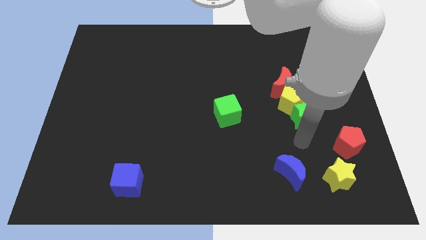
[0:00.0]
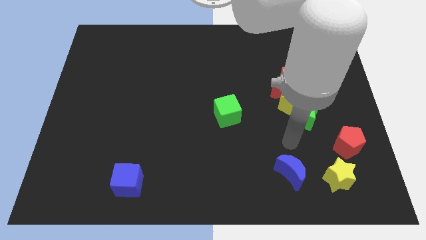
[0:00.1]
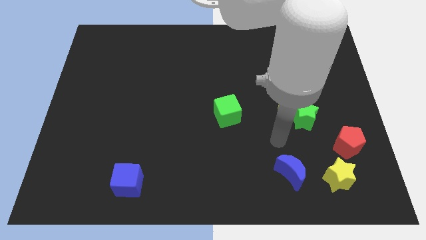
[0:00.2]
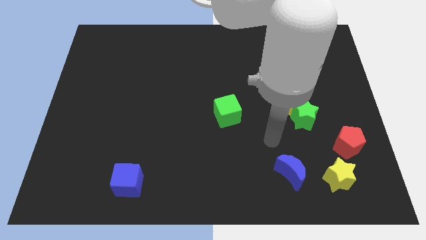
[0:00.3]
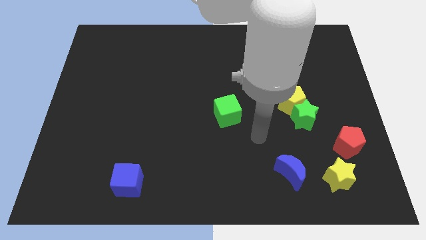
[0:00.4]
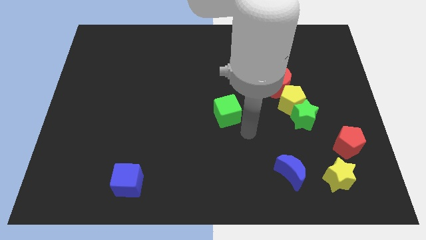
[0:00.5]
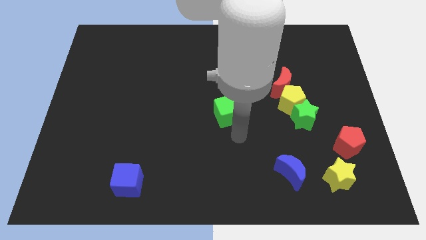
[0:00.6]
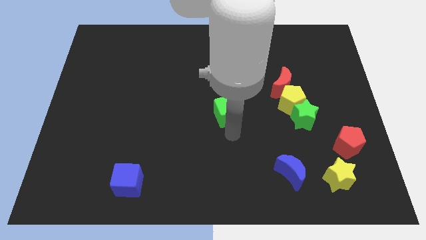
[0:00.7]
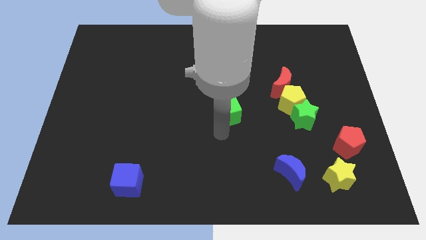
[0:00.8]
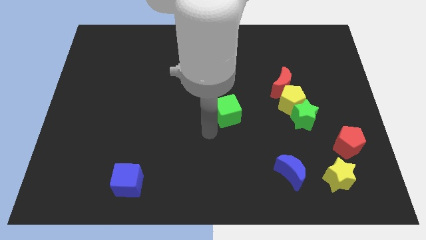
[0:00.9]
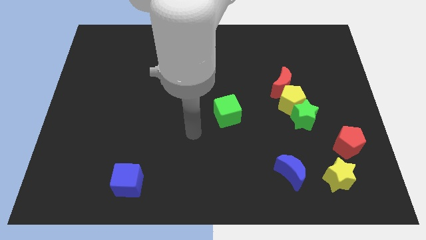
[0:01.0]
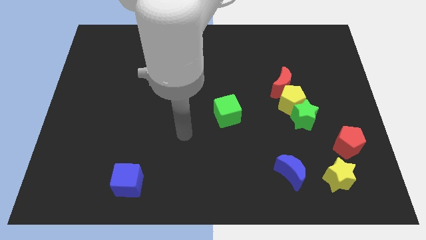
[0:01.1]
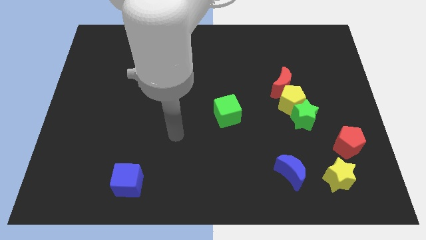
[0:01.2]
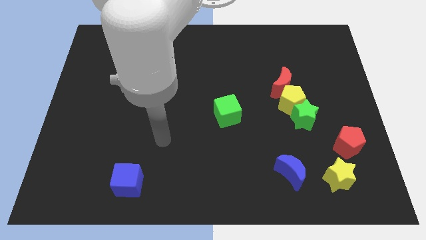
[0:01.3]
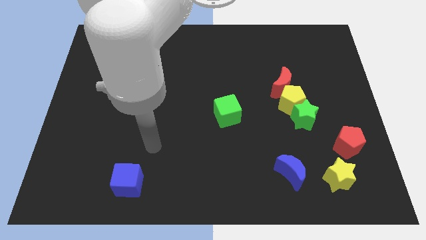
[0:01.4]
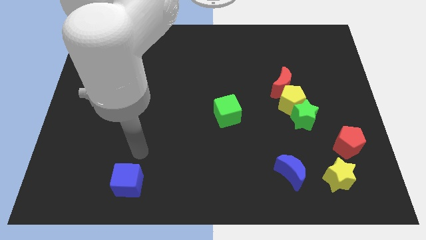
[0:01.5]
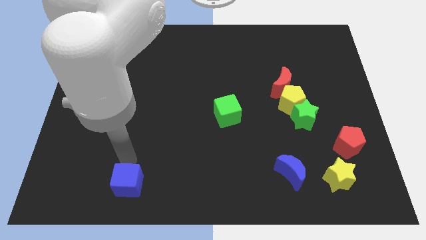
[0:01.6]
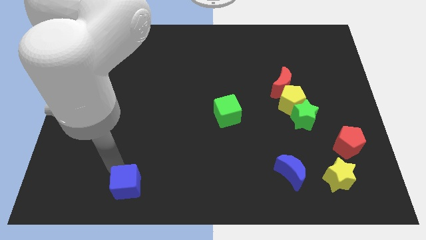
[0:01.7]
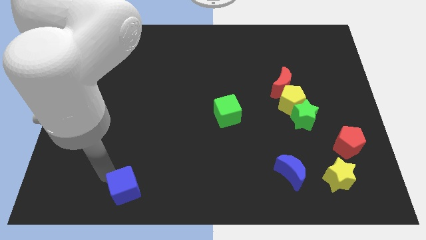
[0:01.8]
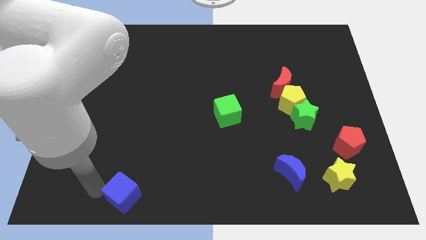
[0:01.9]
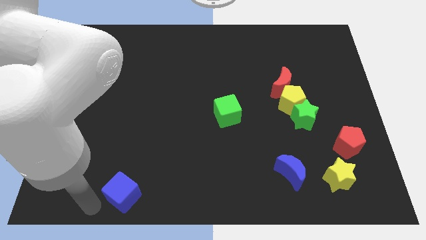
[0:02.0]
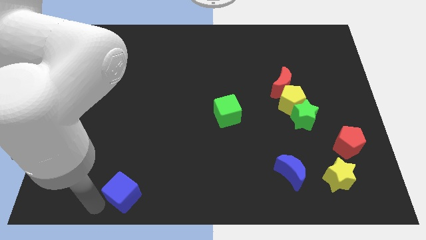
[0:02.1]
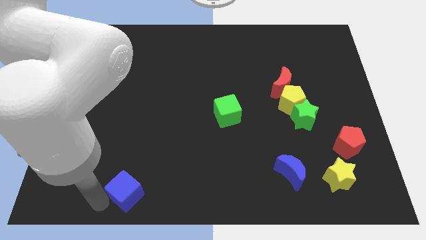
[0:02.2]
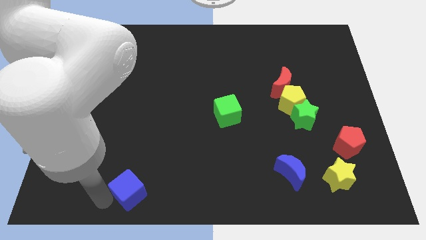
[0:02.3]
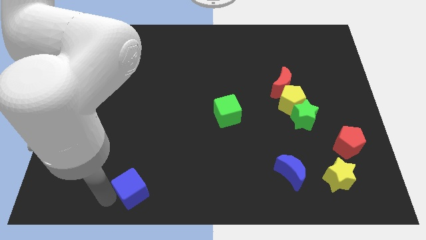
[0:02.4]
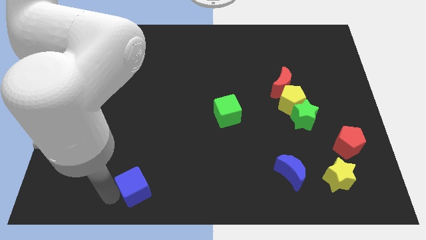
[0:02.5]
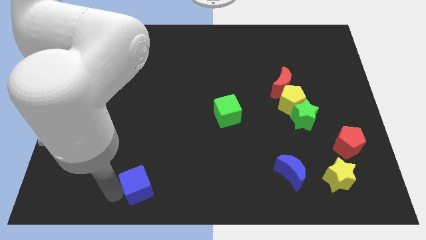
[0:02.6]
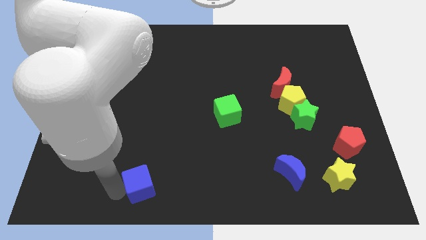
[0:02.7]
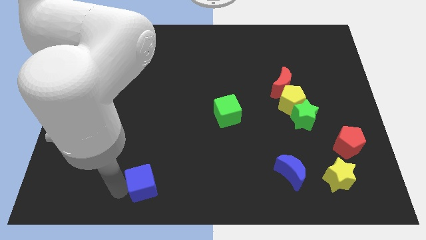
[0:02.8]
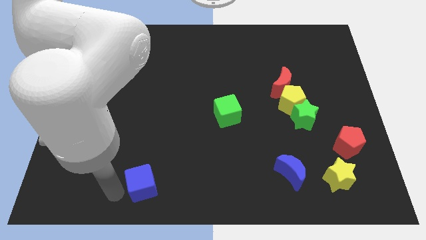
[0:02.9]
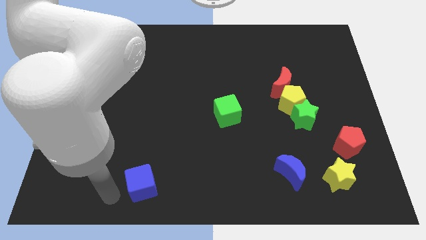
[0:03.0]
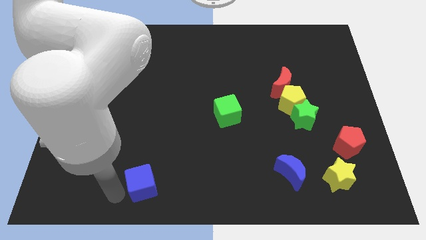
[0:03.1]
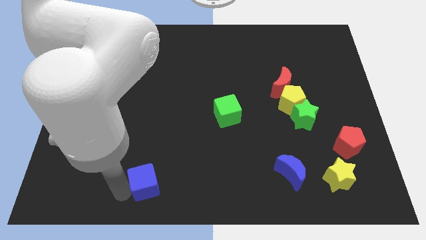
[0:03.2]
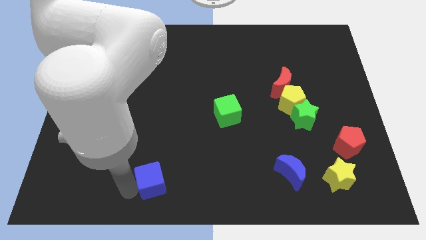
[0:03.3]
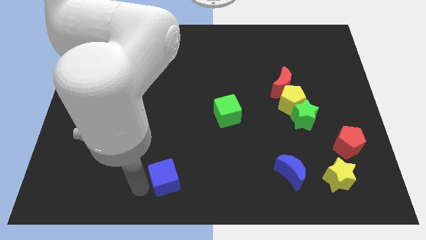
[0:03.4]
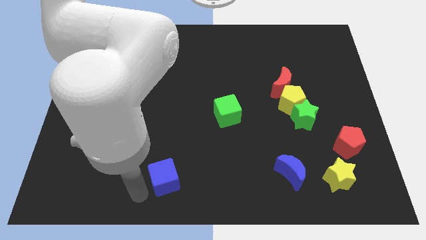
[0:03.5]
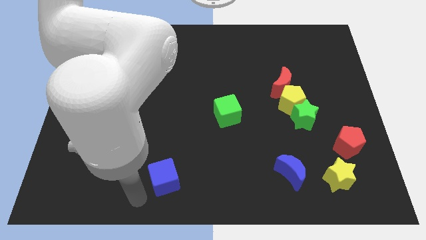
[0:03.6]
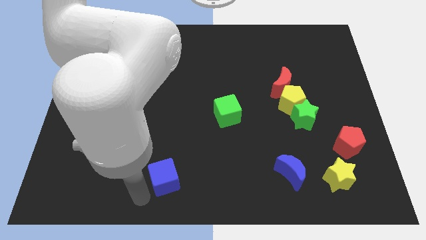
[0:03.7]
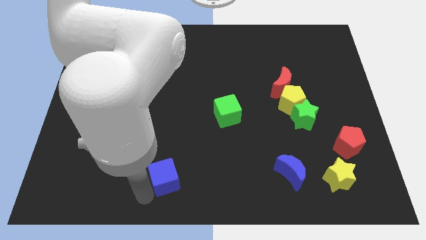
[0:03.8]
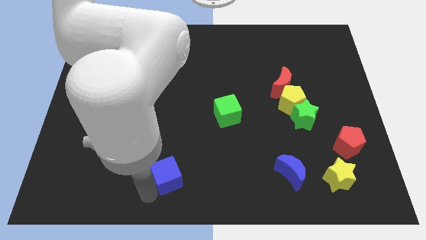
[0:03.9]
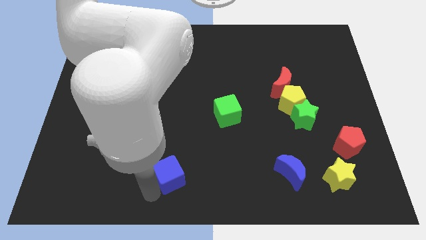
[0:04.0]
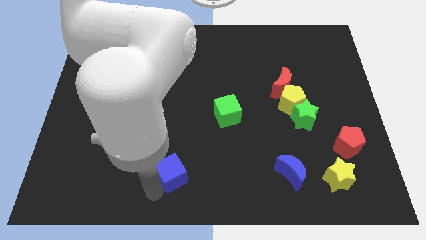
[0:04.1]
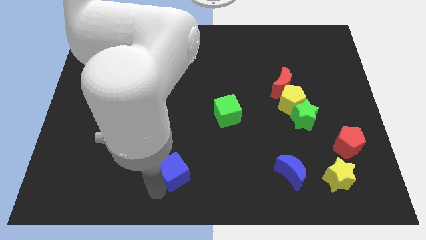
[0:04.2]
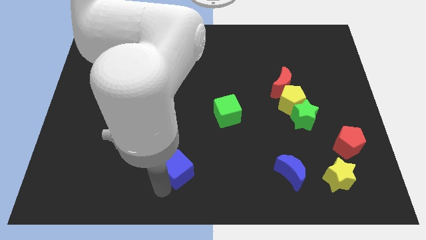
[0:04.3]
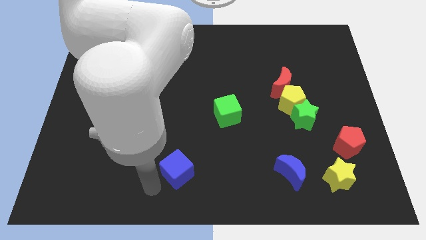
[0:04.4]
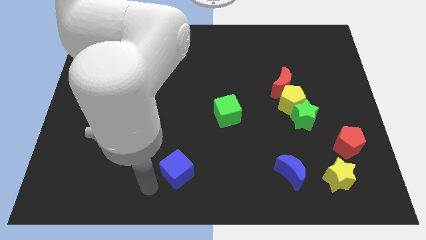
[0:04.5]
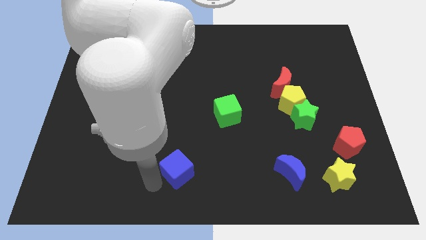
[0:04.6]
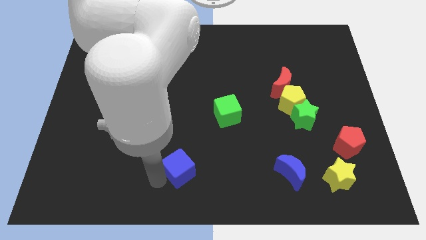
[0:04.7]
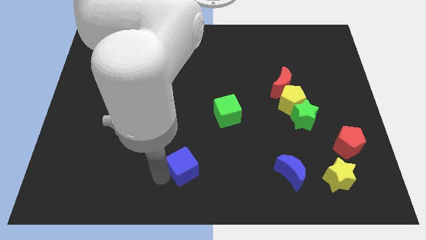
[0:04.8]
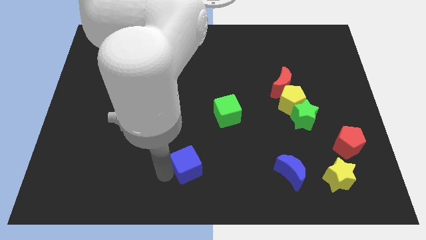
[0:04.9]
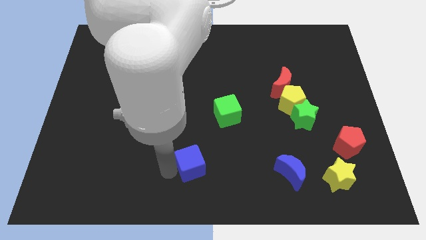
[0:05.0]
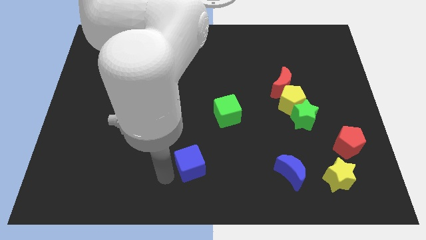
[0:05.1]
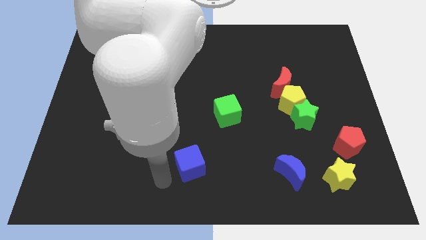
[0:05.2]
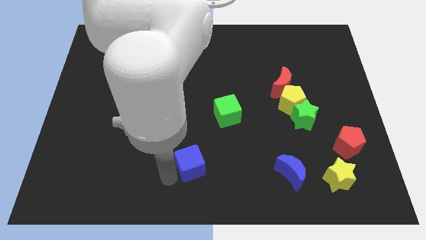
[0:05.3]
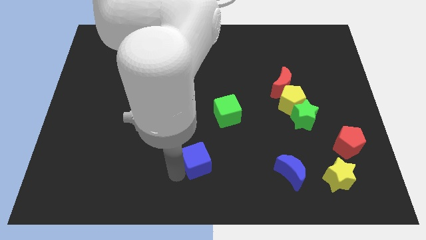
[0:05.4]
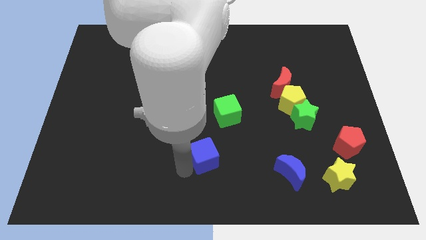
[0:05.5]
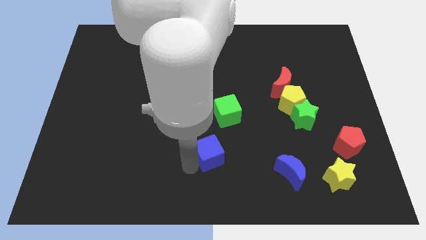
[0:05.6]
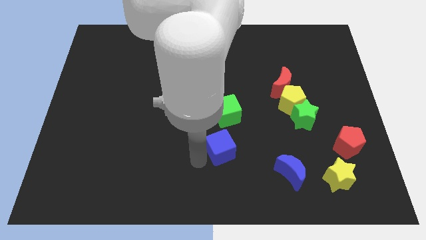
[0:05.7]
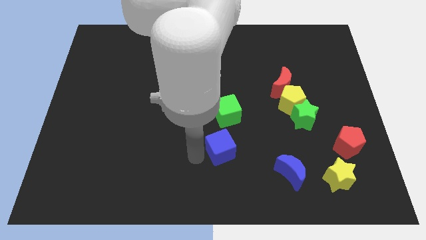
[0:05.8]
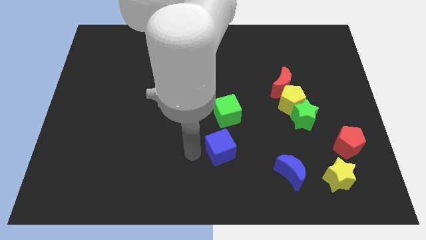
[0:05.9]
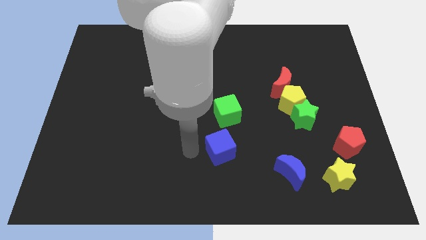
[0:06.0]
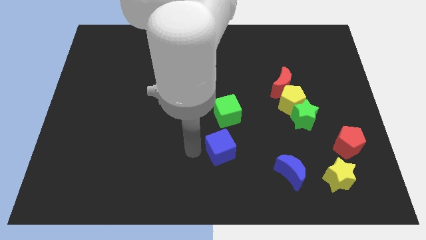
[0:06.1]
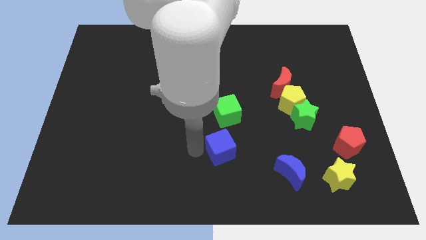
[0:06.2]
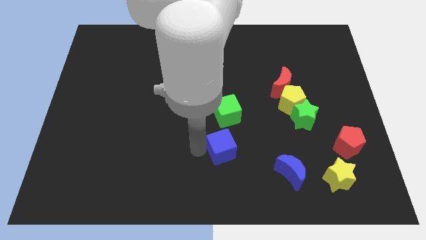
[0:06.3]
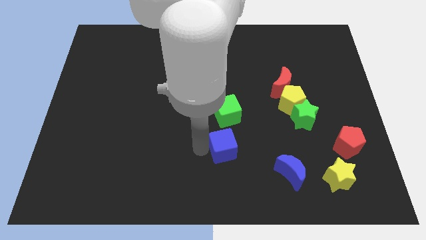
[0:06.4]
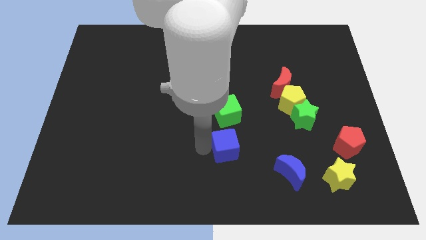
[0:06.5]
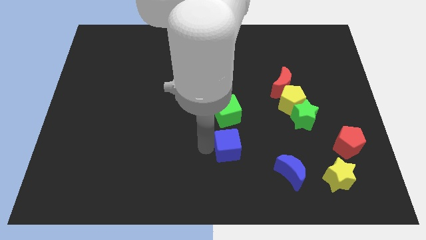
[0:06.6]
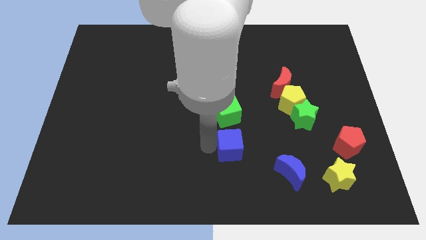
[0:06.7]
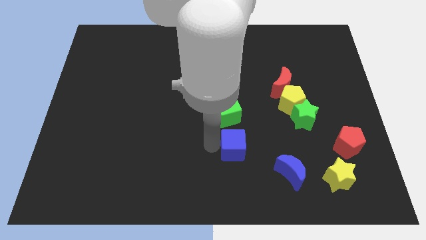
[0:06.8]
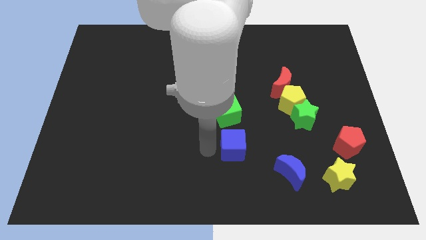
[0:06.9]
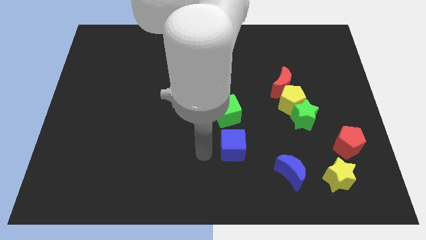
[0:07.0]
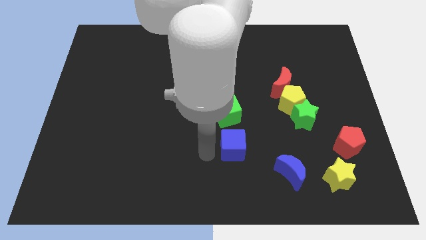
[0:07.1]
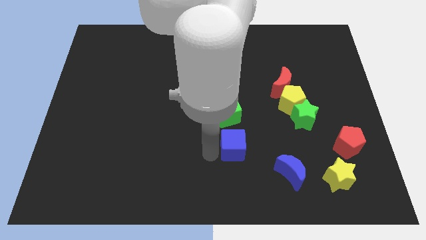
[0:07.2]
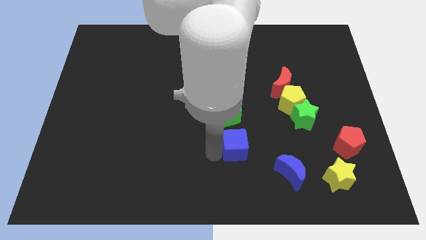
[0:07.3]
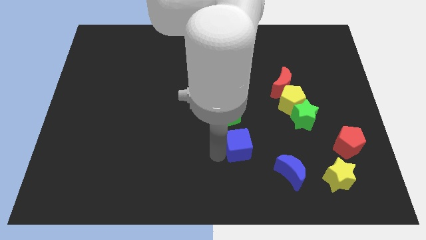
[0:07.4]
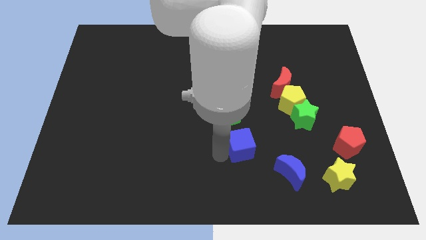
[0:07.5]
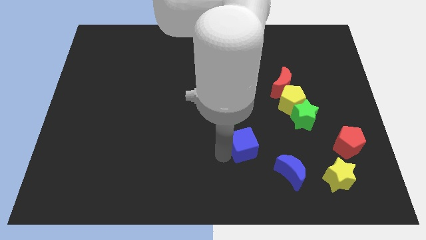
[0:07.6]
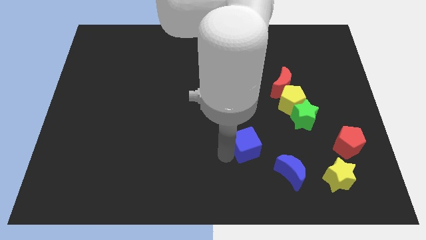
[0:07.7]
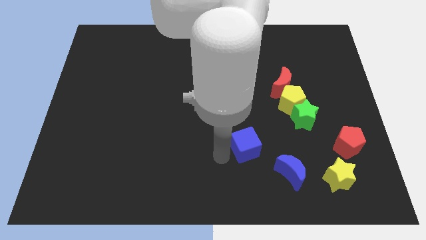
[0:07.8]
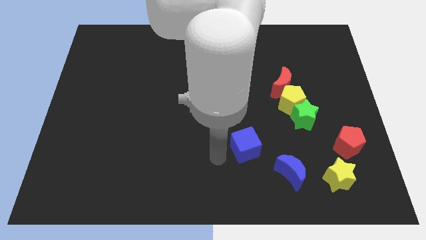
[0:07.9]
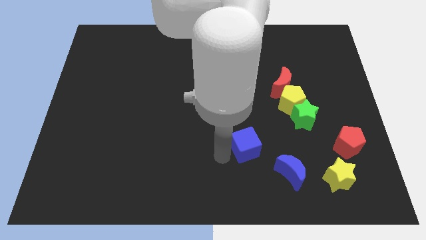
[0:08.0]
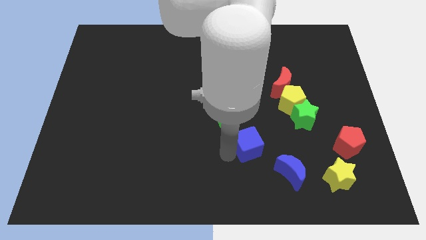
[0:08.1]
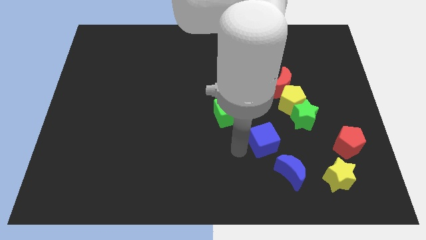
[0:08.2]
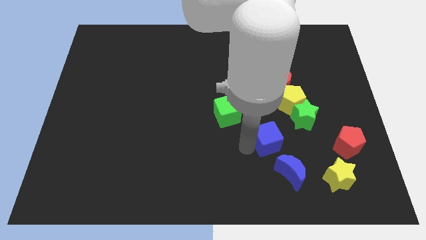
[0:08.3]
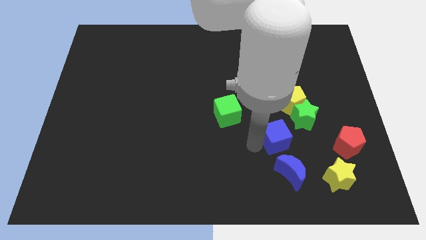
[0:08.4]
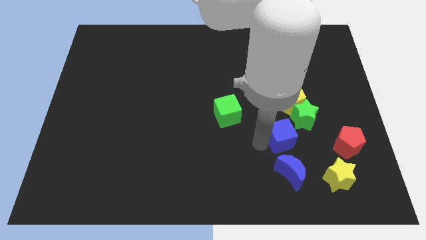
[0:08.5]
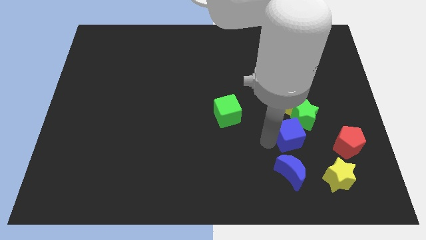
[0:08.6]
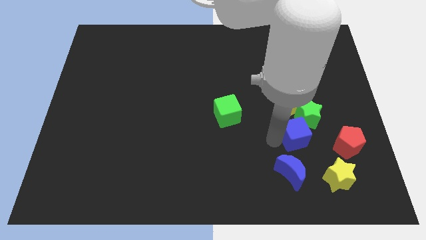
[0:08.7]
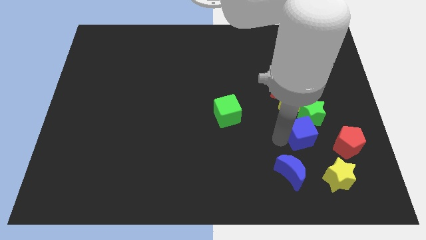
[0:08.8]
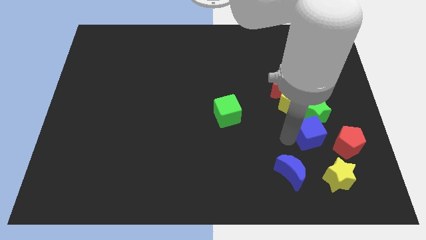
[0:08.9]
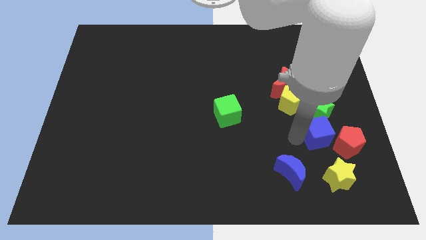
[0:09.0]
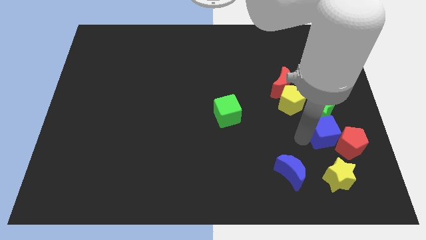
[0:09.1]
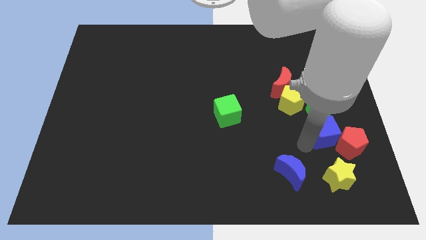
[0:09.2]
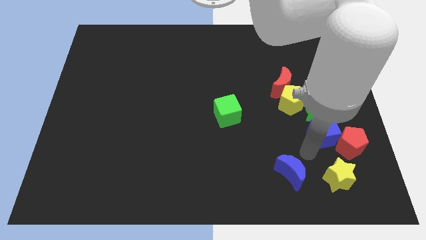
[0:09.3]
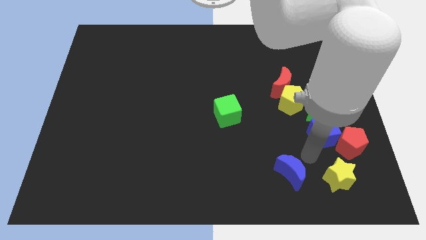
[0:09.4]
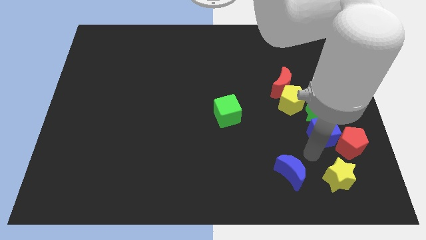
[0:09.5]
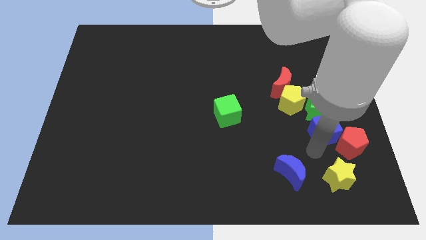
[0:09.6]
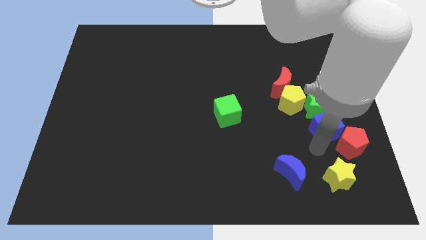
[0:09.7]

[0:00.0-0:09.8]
put the blue cube to the top of the red pentagon
